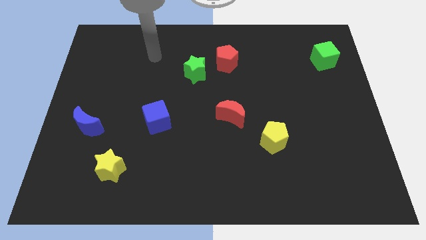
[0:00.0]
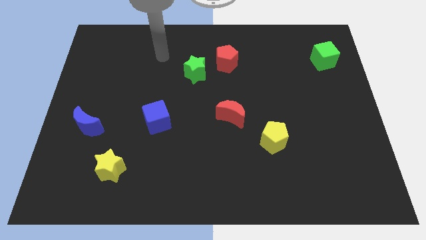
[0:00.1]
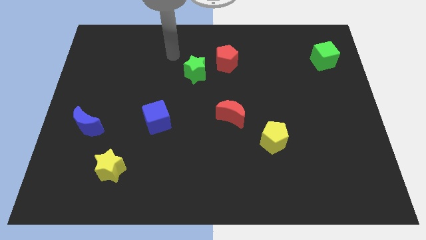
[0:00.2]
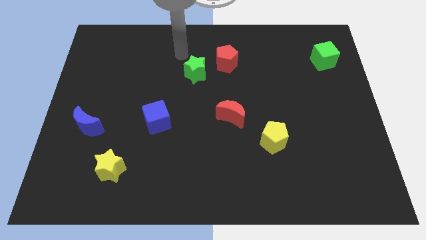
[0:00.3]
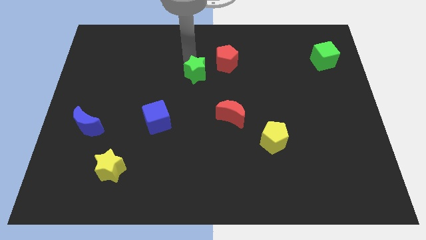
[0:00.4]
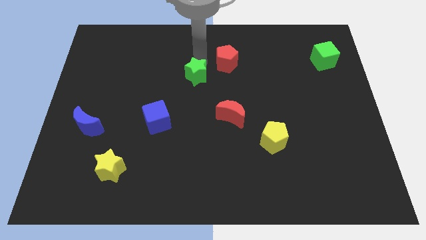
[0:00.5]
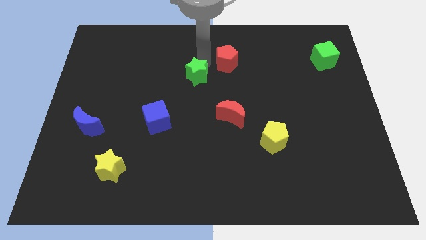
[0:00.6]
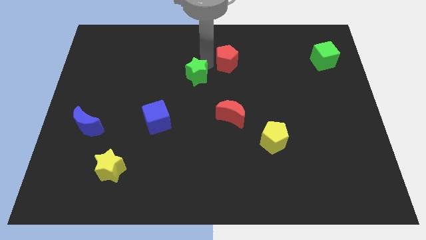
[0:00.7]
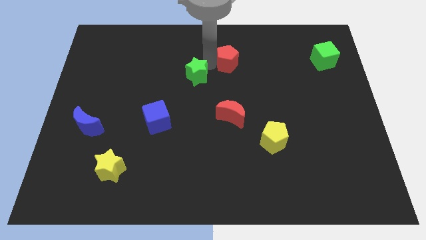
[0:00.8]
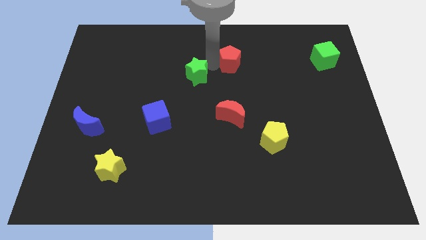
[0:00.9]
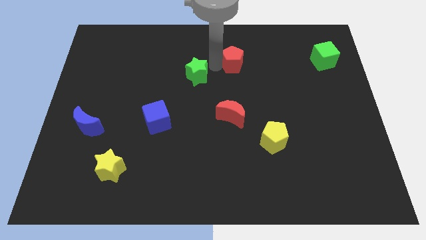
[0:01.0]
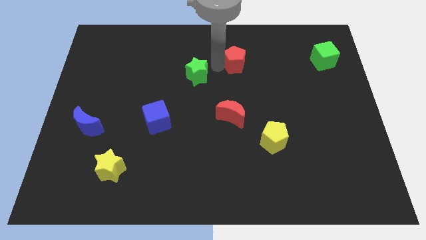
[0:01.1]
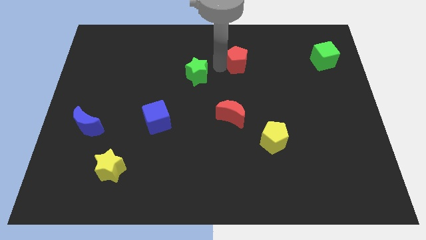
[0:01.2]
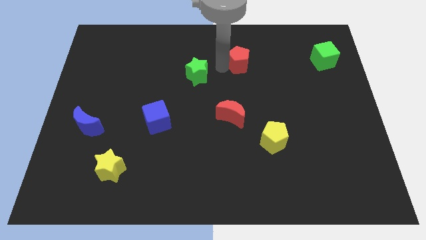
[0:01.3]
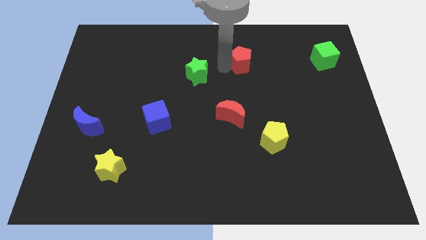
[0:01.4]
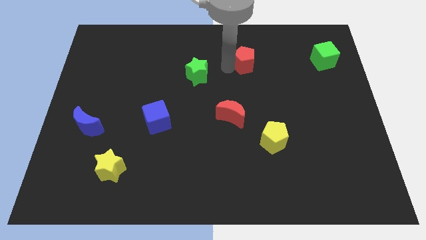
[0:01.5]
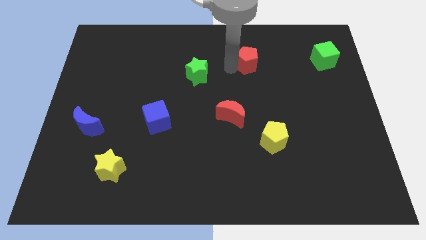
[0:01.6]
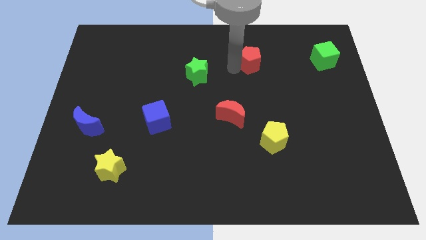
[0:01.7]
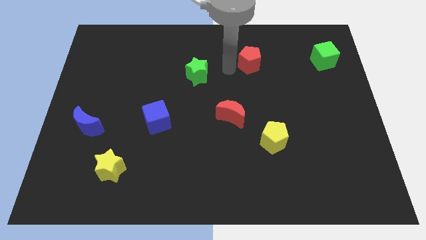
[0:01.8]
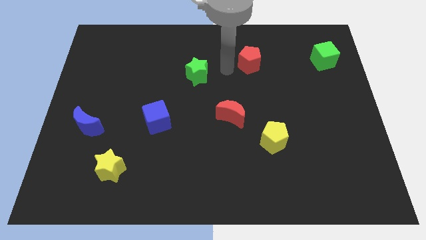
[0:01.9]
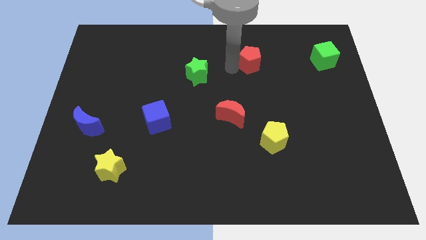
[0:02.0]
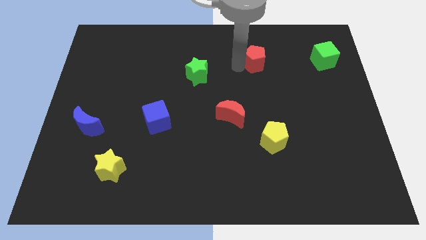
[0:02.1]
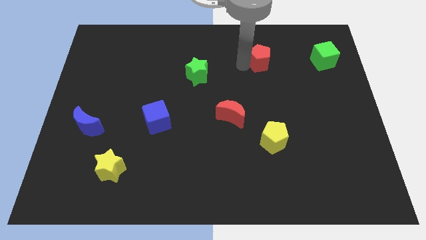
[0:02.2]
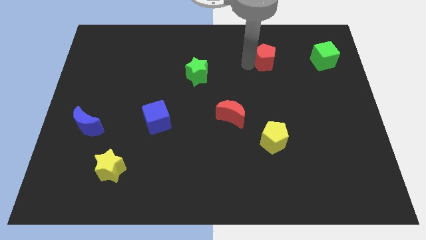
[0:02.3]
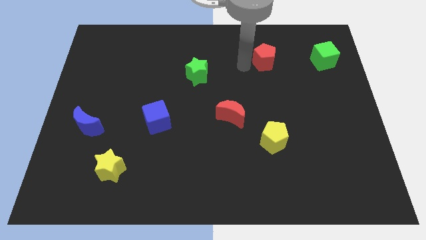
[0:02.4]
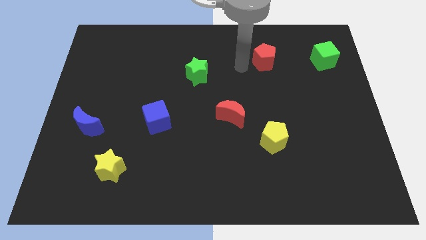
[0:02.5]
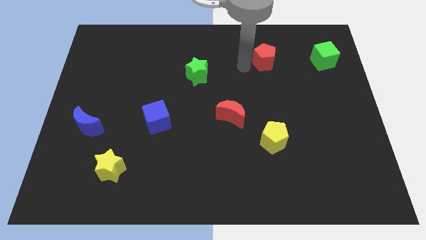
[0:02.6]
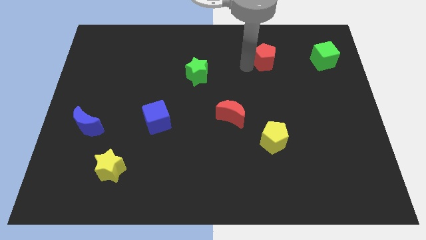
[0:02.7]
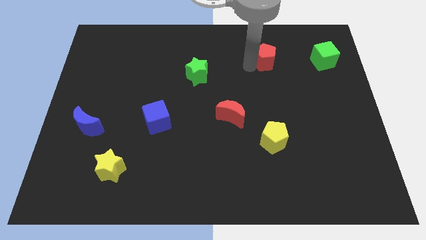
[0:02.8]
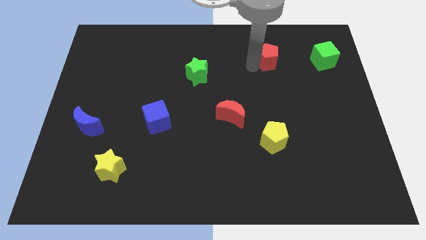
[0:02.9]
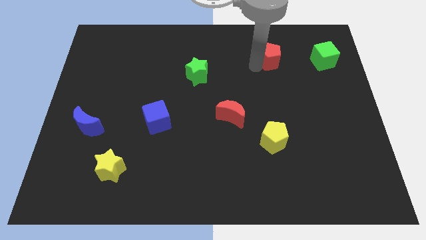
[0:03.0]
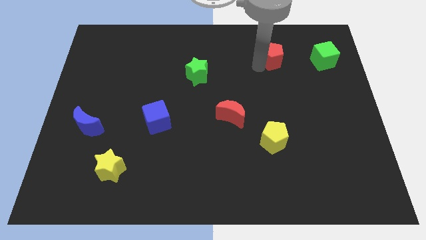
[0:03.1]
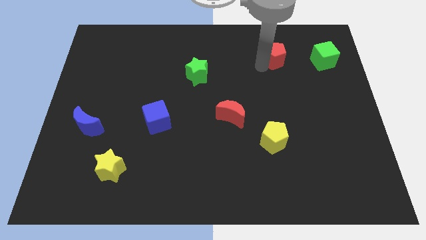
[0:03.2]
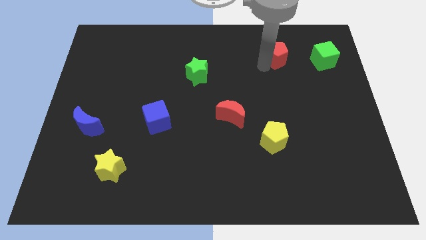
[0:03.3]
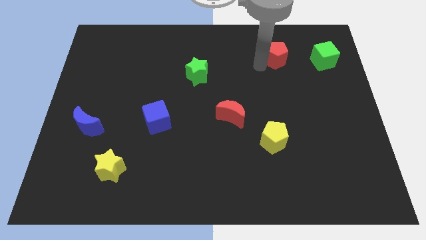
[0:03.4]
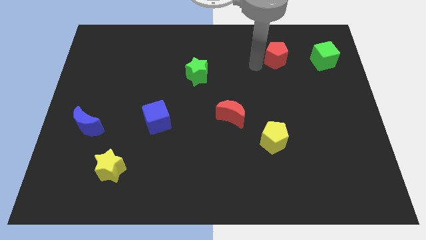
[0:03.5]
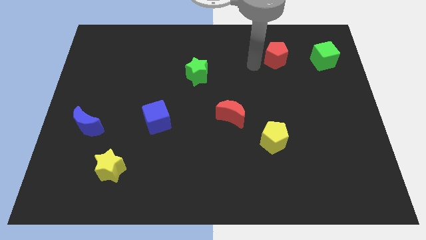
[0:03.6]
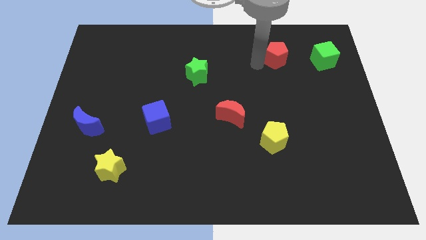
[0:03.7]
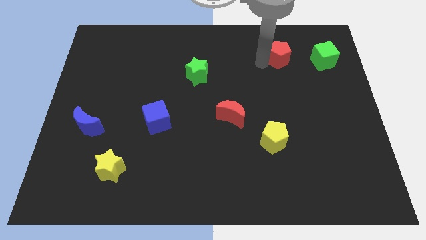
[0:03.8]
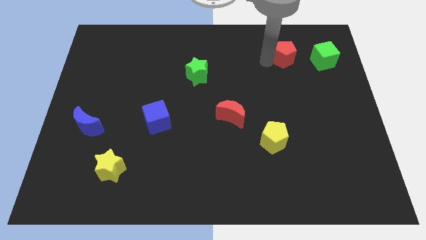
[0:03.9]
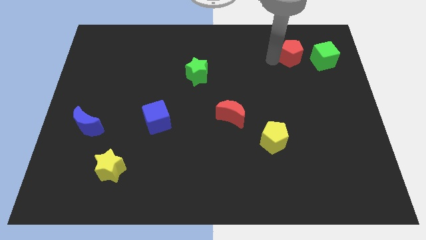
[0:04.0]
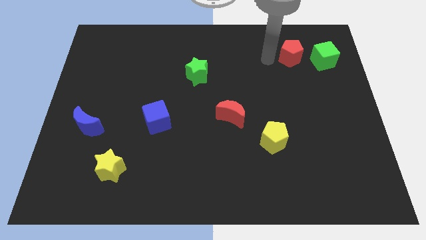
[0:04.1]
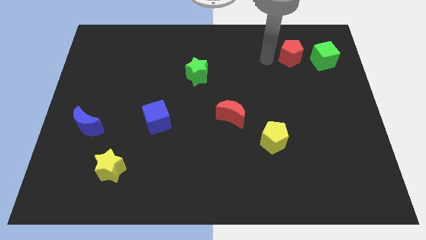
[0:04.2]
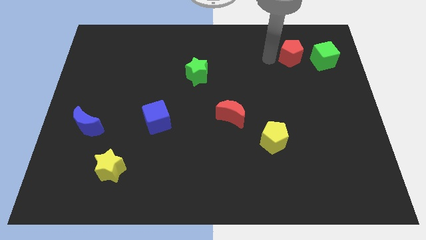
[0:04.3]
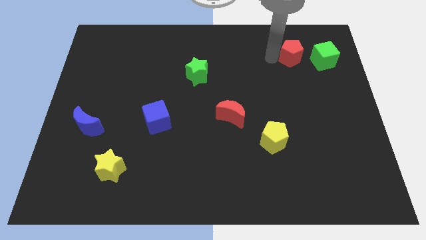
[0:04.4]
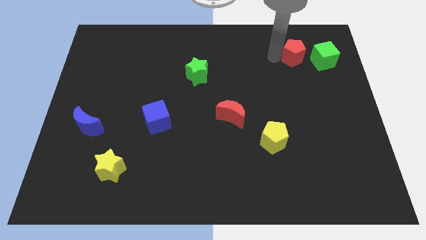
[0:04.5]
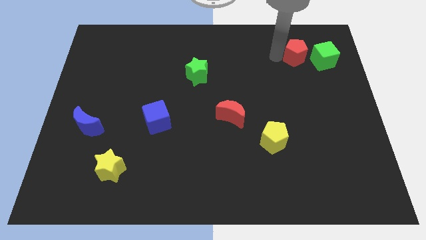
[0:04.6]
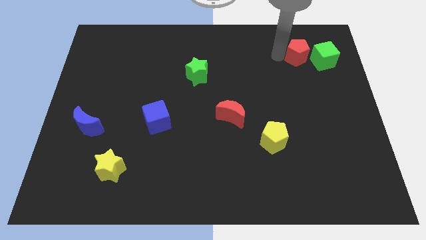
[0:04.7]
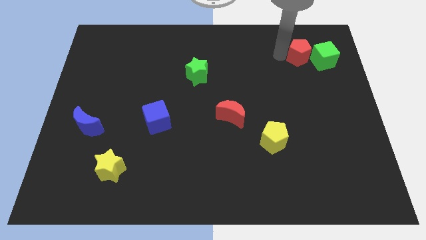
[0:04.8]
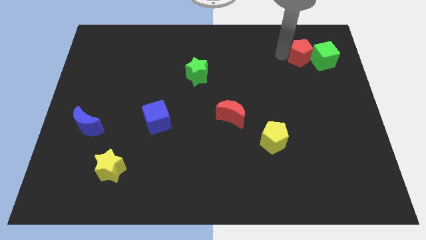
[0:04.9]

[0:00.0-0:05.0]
slide the red pentagon towards the green cube

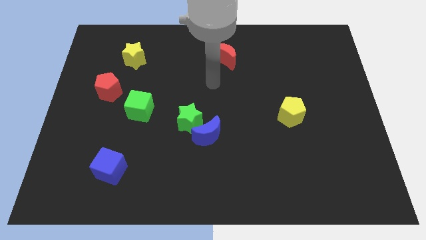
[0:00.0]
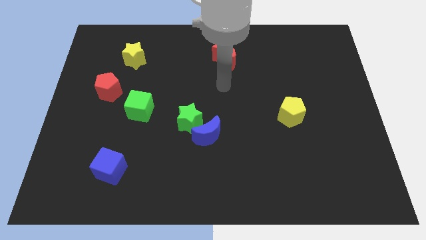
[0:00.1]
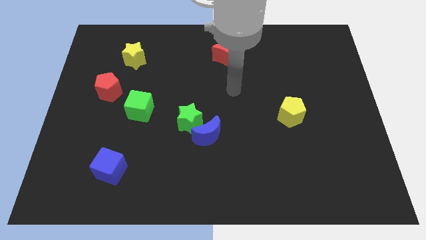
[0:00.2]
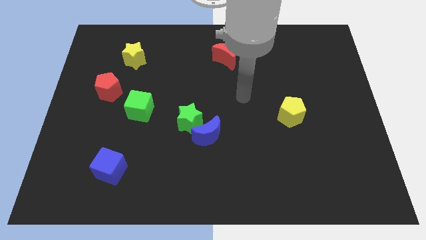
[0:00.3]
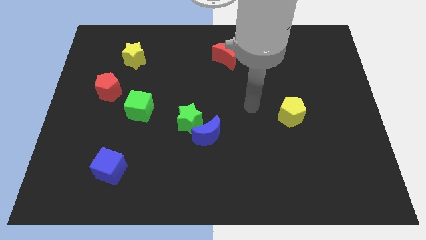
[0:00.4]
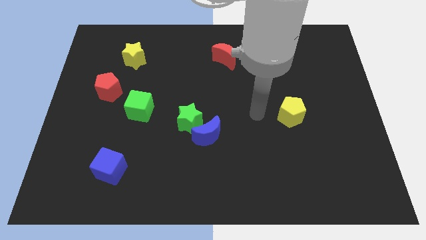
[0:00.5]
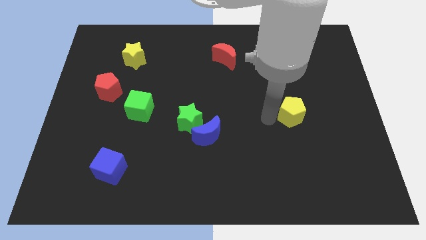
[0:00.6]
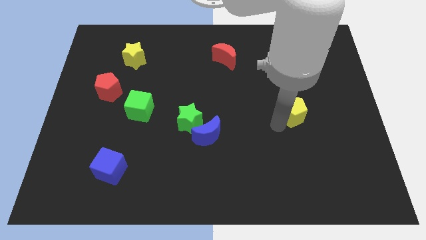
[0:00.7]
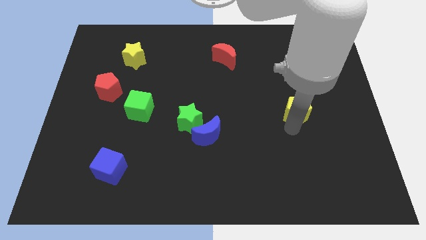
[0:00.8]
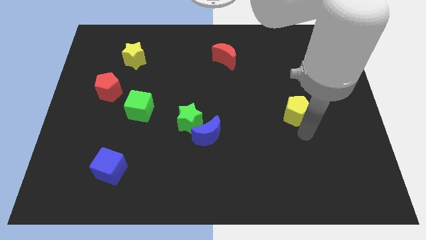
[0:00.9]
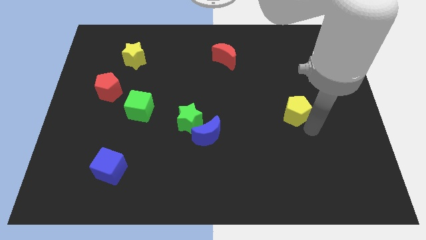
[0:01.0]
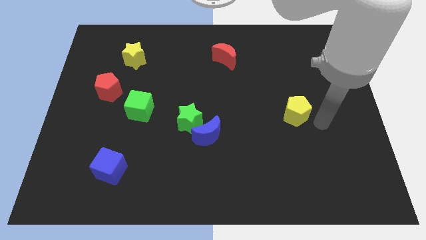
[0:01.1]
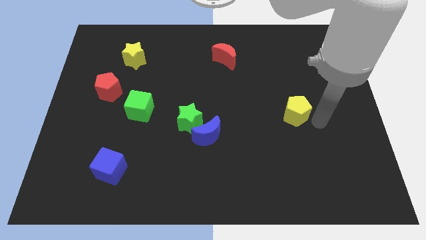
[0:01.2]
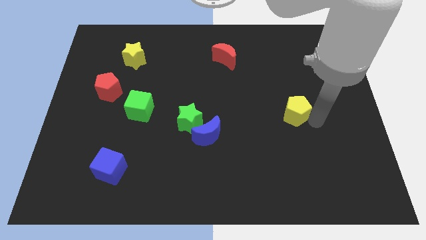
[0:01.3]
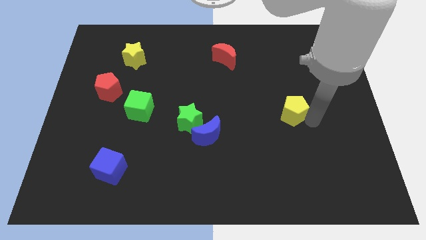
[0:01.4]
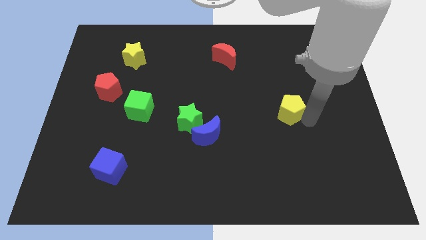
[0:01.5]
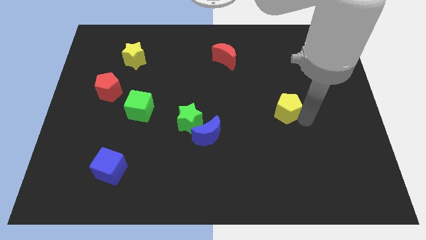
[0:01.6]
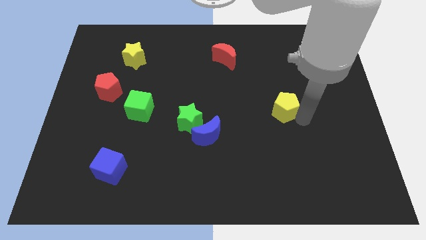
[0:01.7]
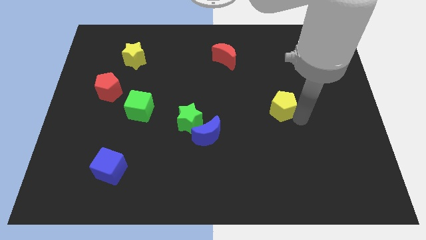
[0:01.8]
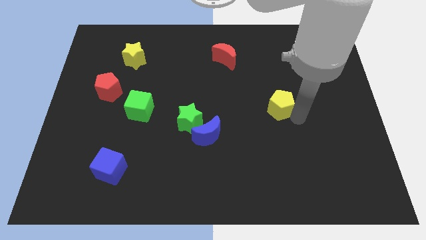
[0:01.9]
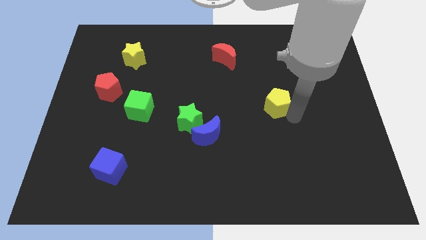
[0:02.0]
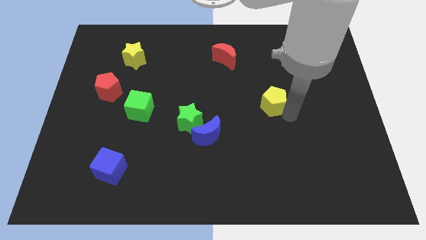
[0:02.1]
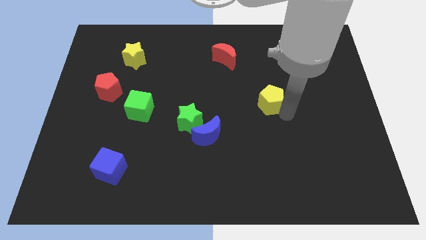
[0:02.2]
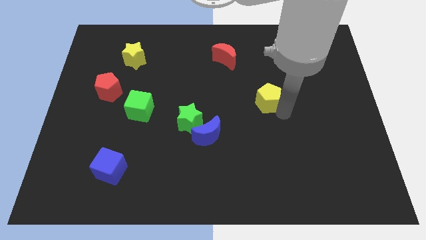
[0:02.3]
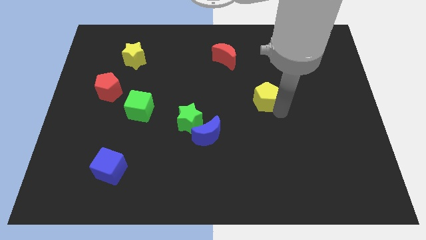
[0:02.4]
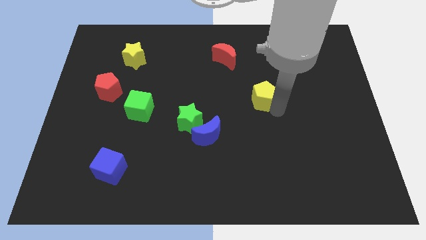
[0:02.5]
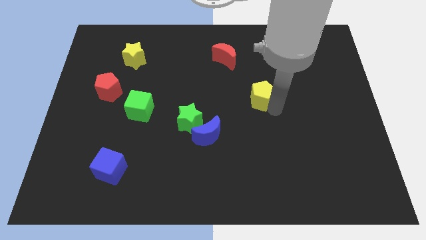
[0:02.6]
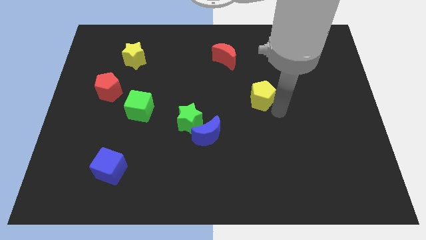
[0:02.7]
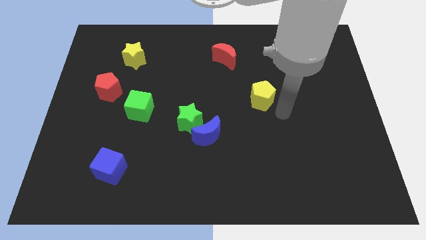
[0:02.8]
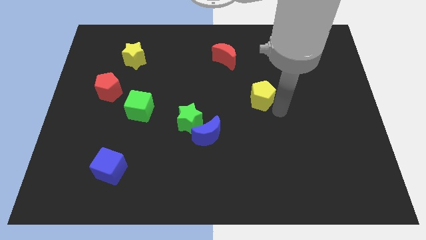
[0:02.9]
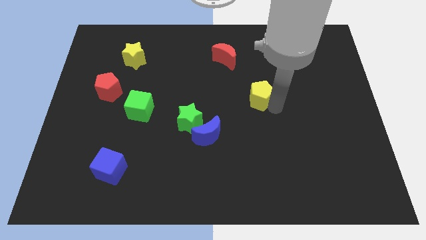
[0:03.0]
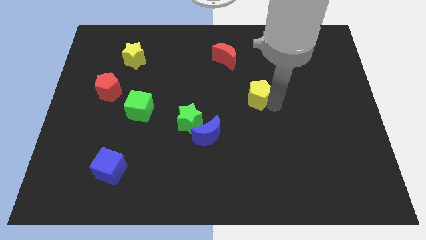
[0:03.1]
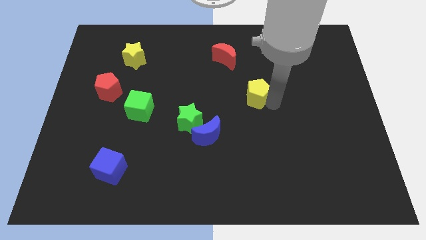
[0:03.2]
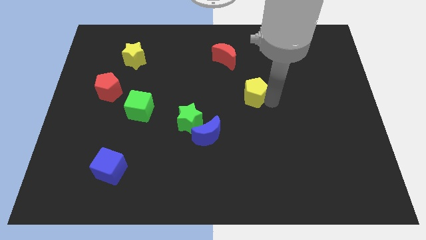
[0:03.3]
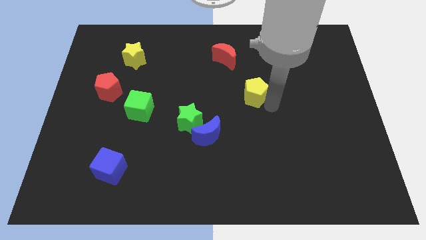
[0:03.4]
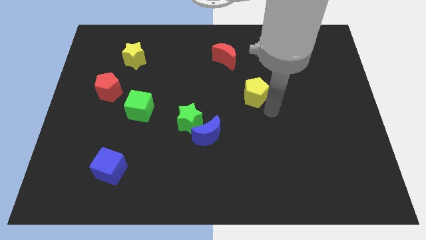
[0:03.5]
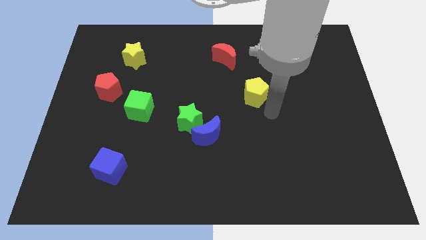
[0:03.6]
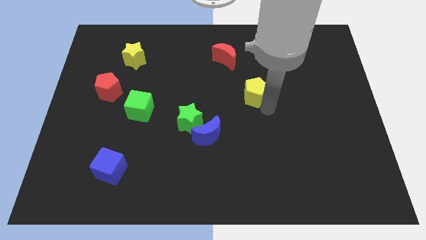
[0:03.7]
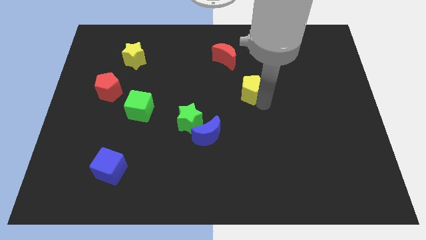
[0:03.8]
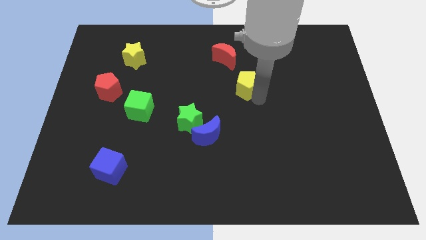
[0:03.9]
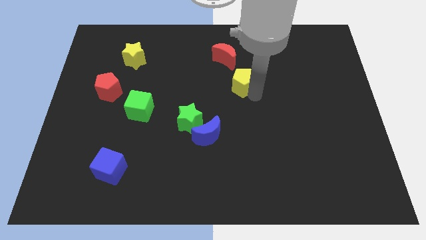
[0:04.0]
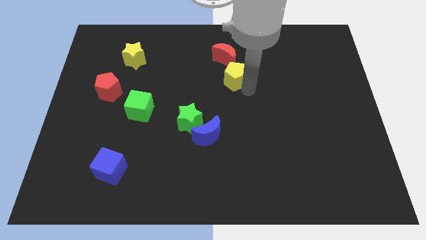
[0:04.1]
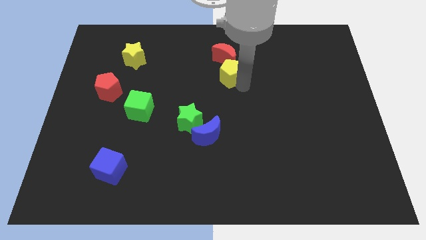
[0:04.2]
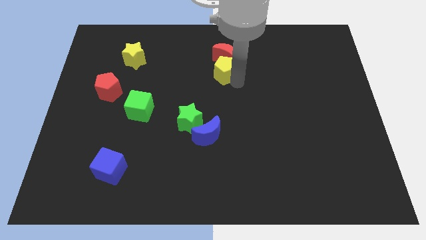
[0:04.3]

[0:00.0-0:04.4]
move the yellow pentagon next to the red moon
